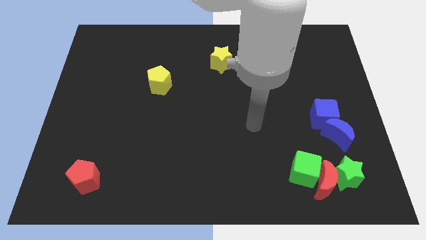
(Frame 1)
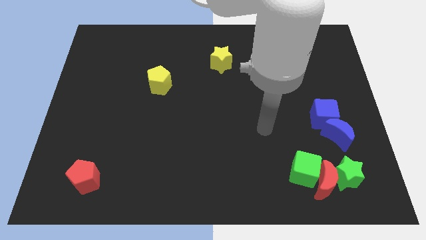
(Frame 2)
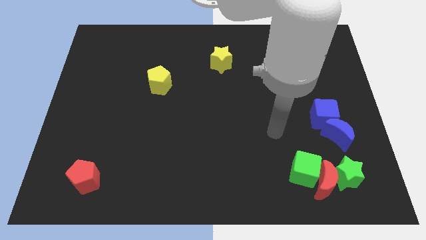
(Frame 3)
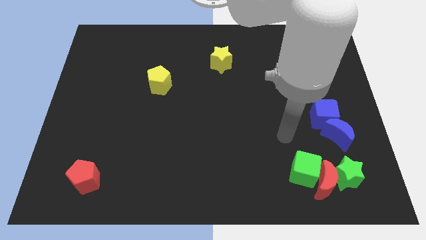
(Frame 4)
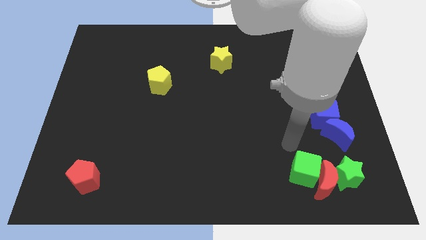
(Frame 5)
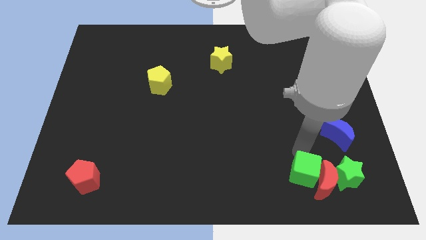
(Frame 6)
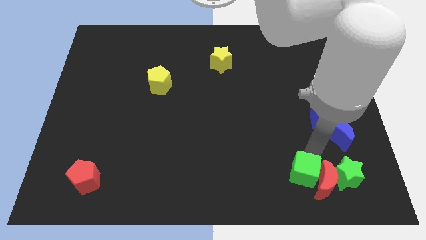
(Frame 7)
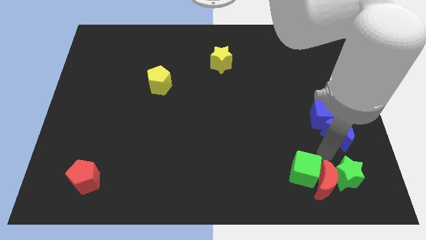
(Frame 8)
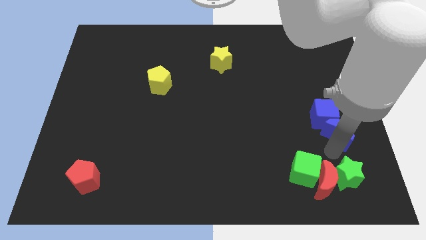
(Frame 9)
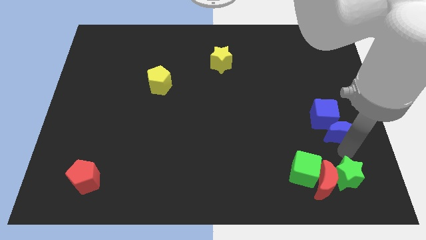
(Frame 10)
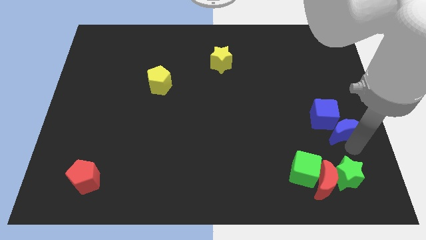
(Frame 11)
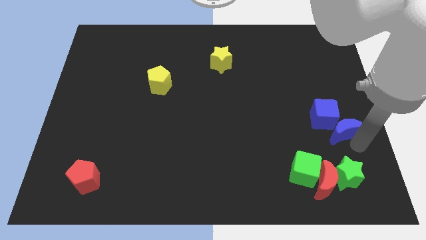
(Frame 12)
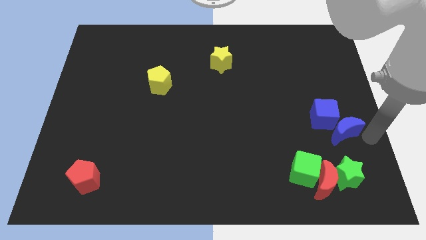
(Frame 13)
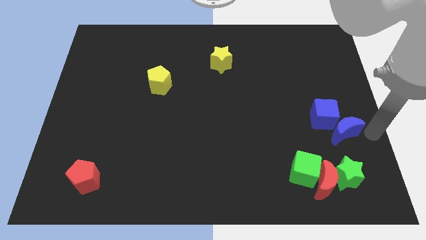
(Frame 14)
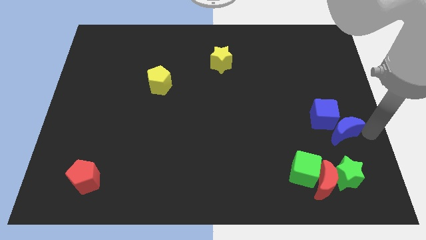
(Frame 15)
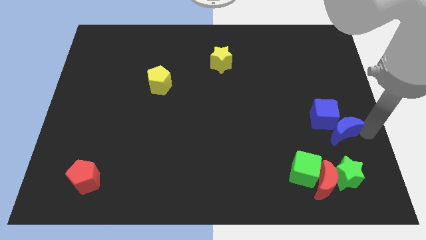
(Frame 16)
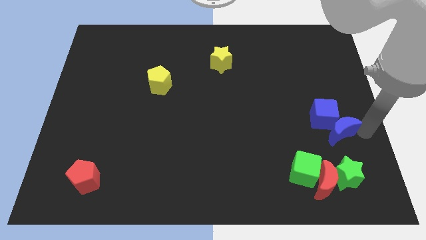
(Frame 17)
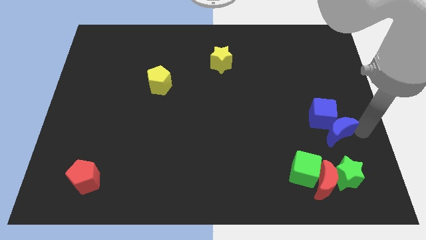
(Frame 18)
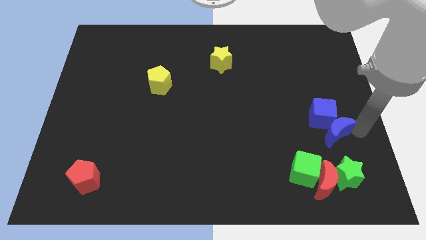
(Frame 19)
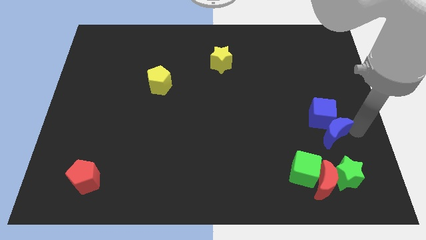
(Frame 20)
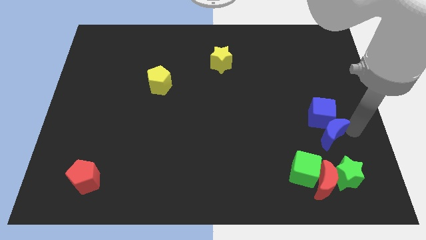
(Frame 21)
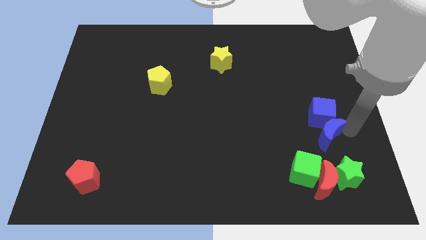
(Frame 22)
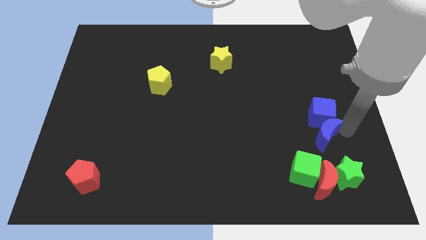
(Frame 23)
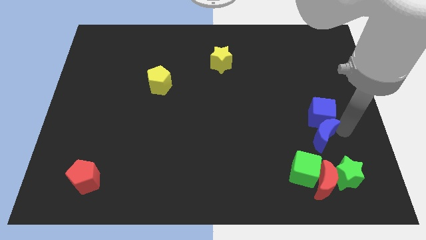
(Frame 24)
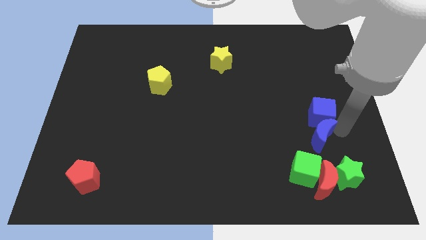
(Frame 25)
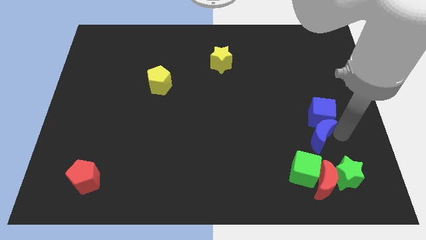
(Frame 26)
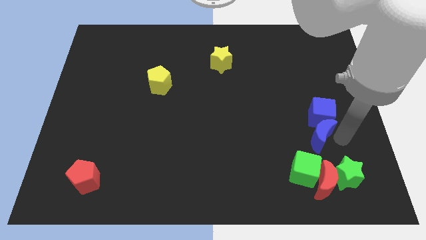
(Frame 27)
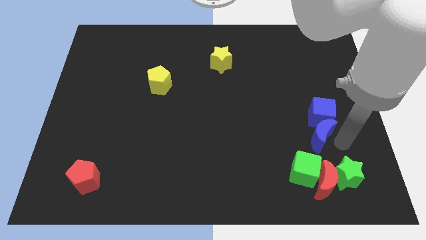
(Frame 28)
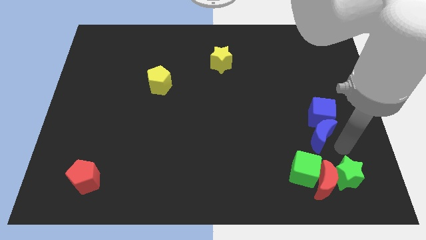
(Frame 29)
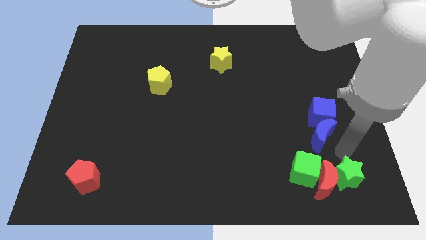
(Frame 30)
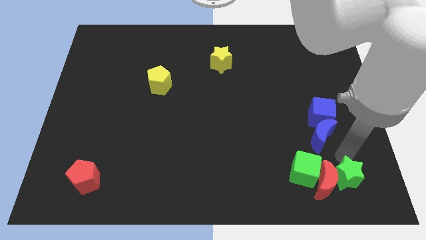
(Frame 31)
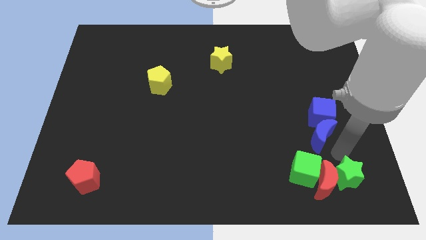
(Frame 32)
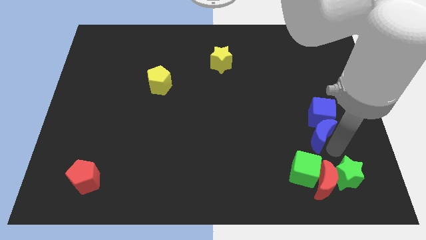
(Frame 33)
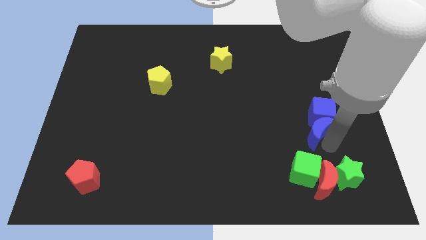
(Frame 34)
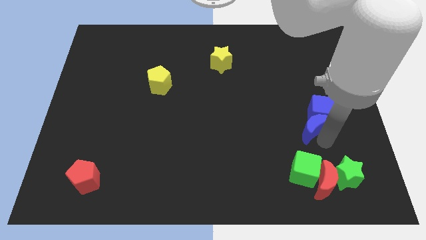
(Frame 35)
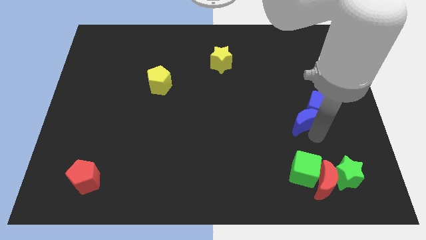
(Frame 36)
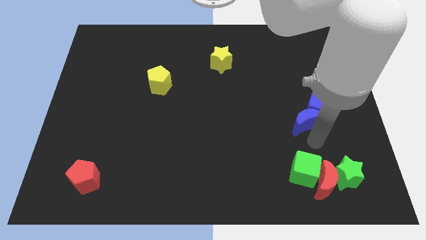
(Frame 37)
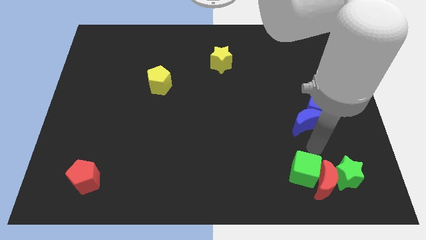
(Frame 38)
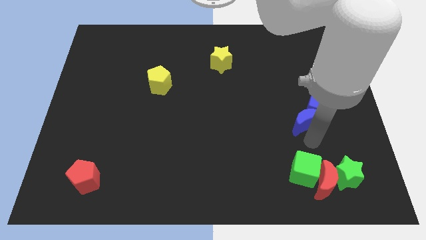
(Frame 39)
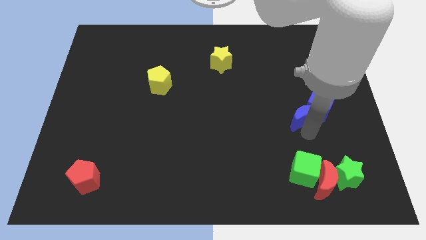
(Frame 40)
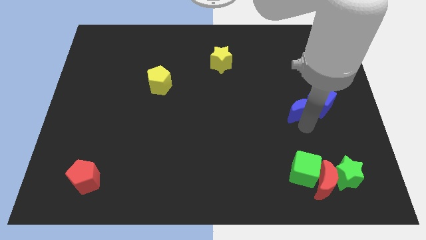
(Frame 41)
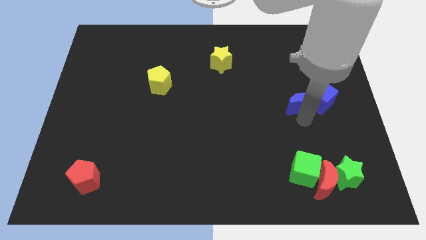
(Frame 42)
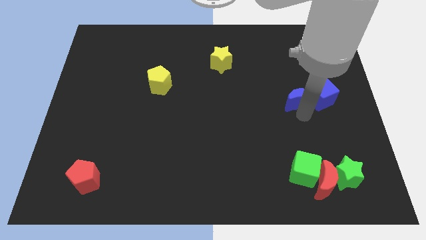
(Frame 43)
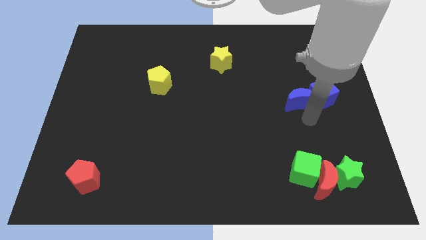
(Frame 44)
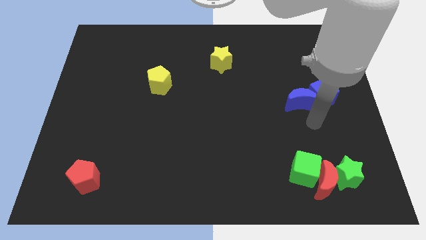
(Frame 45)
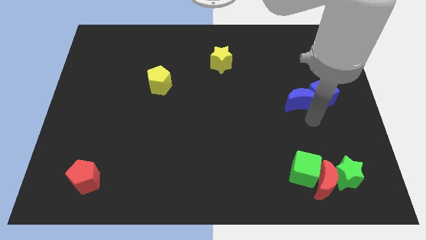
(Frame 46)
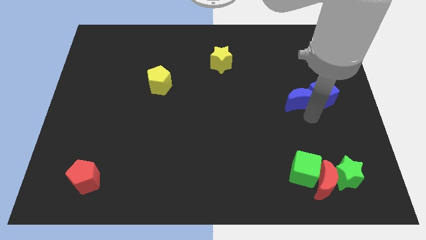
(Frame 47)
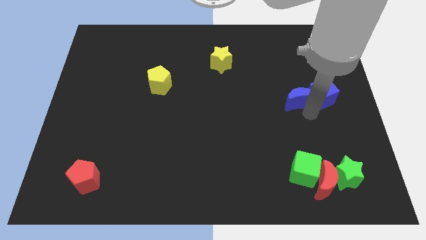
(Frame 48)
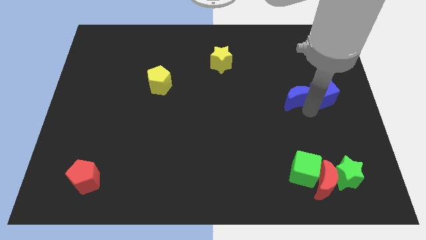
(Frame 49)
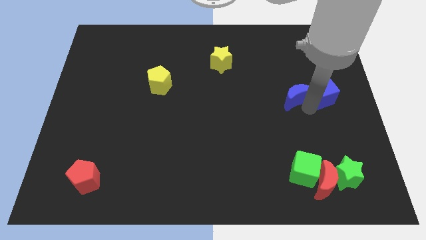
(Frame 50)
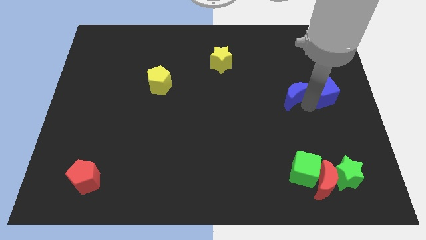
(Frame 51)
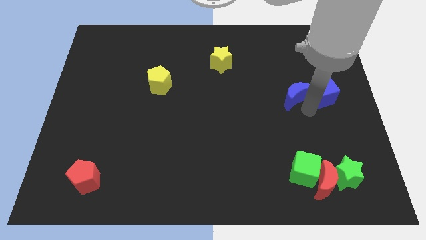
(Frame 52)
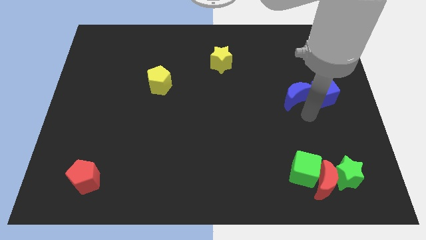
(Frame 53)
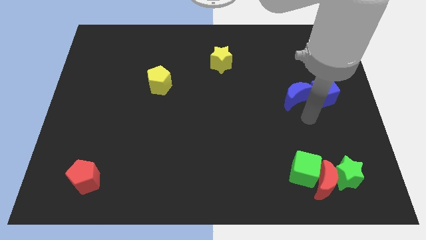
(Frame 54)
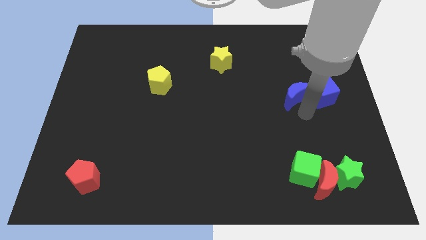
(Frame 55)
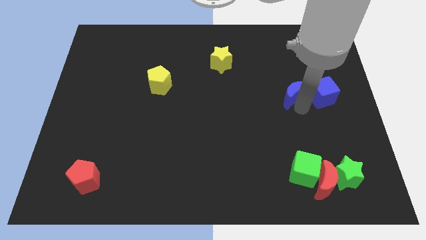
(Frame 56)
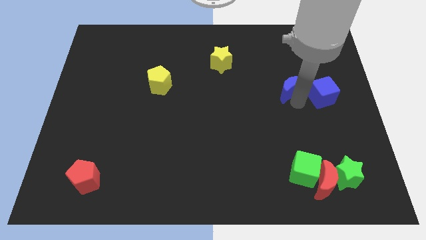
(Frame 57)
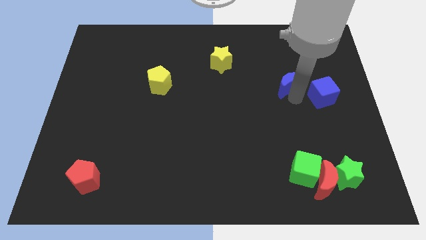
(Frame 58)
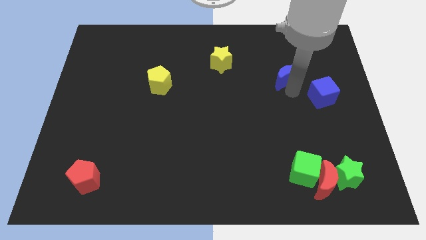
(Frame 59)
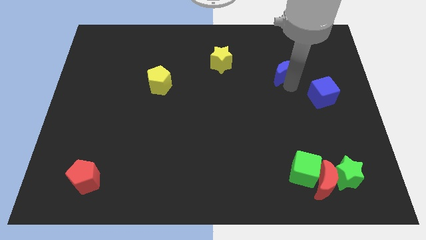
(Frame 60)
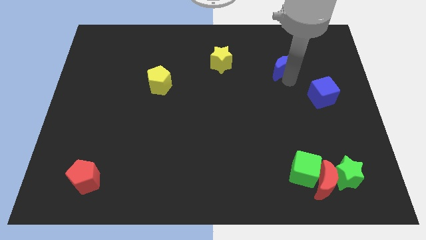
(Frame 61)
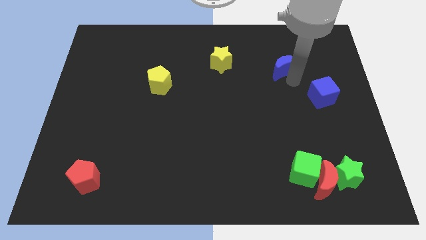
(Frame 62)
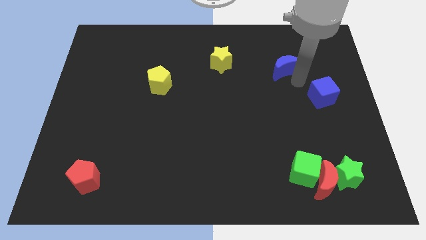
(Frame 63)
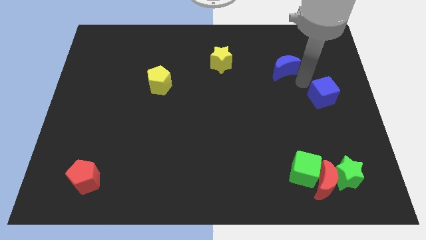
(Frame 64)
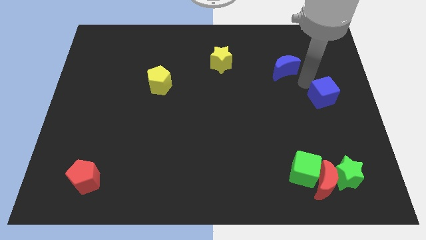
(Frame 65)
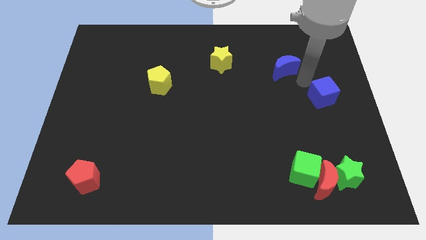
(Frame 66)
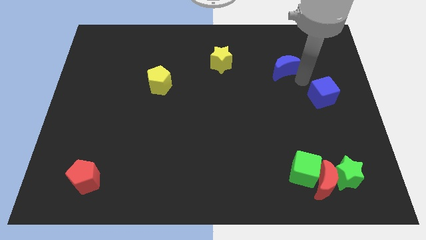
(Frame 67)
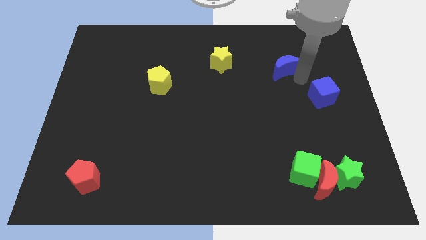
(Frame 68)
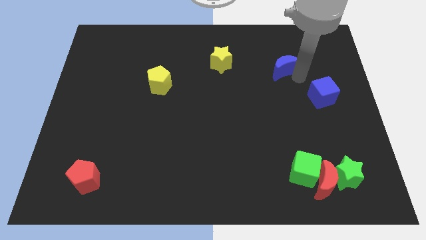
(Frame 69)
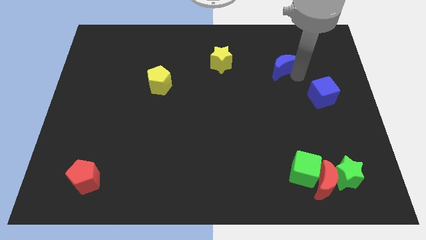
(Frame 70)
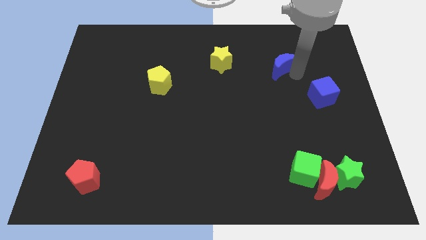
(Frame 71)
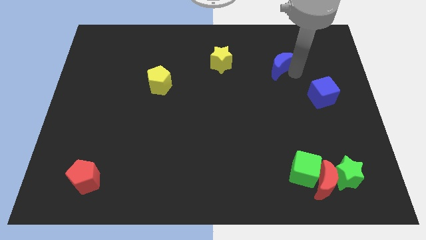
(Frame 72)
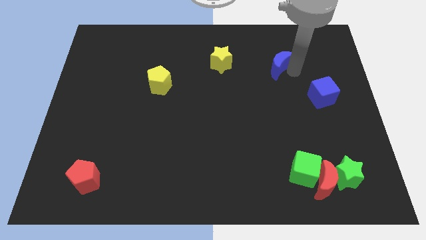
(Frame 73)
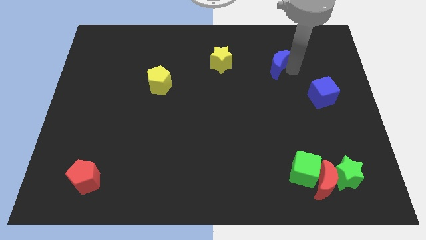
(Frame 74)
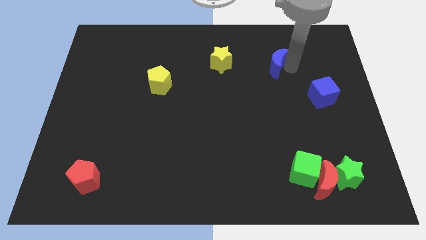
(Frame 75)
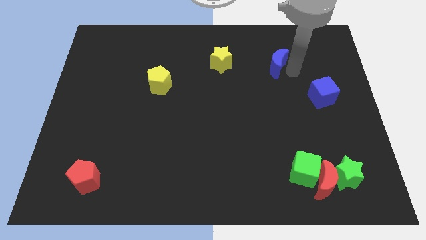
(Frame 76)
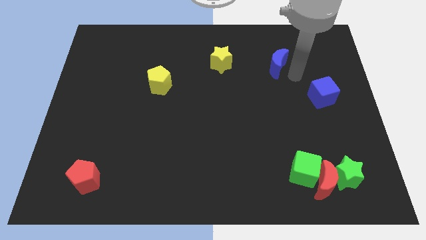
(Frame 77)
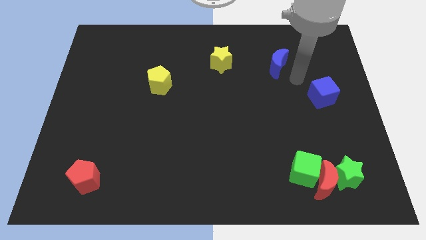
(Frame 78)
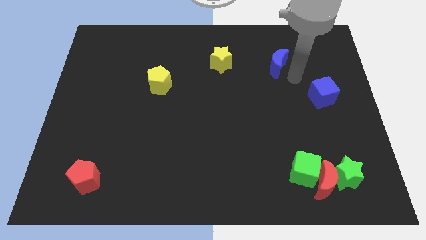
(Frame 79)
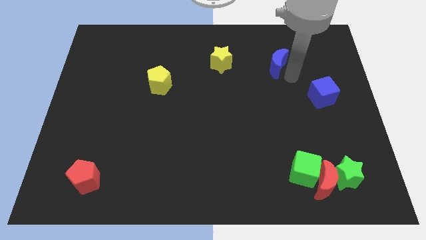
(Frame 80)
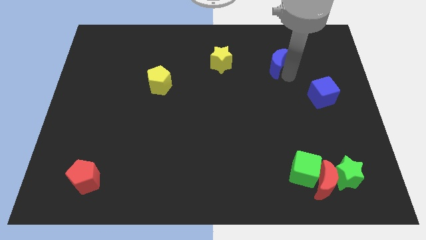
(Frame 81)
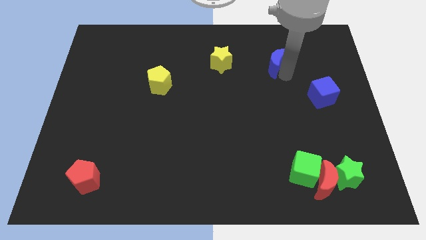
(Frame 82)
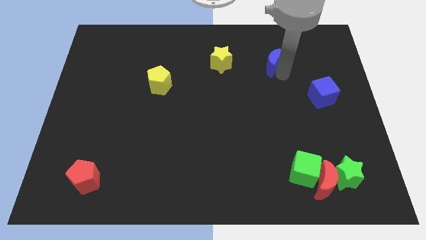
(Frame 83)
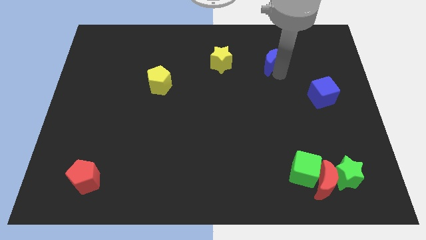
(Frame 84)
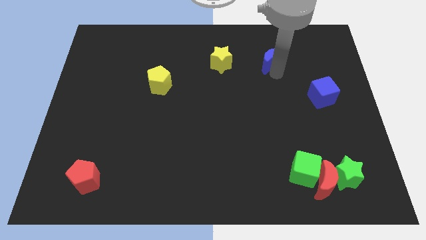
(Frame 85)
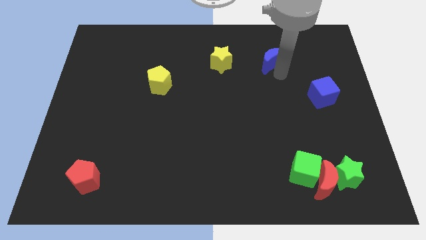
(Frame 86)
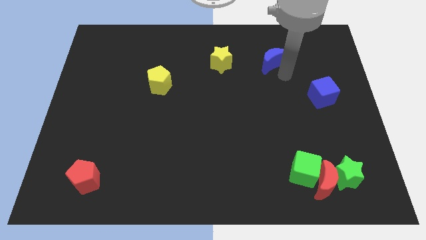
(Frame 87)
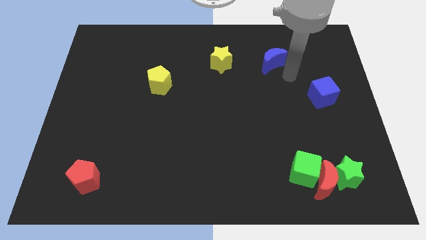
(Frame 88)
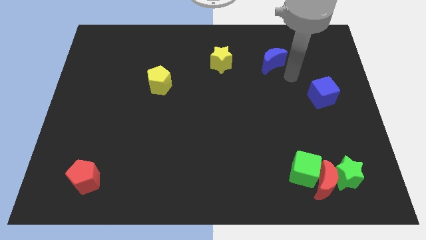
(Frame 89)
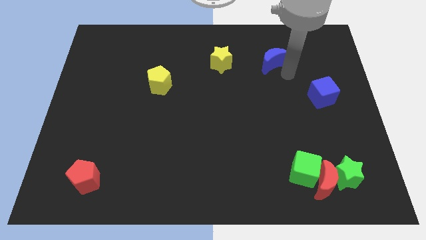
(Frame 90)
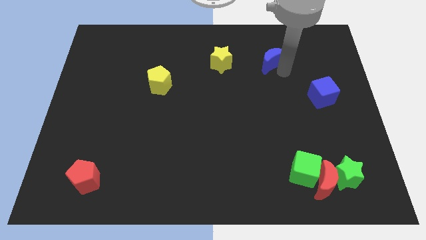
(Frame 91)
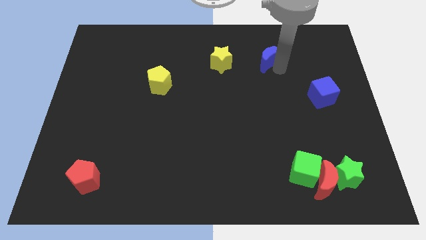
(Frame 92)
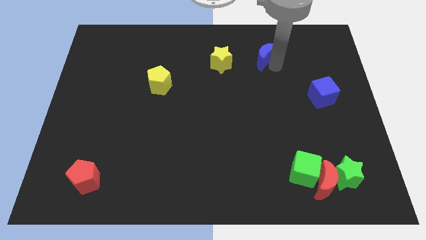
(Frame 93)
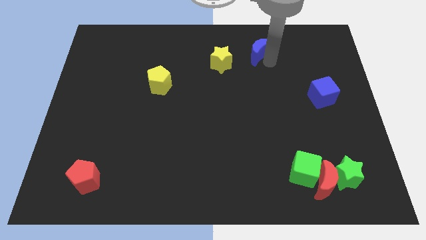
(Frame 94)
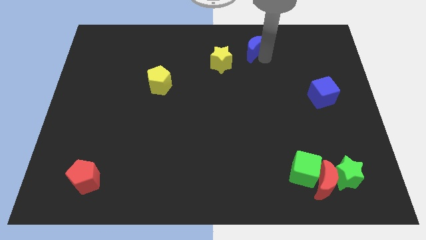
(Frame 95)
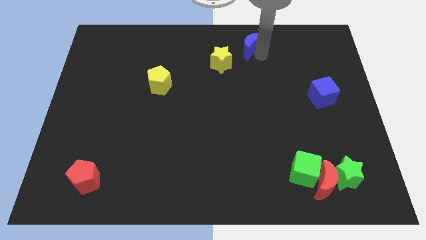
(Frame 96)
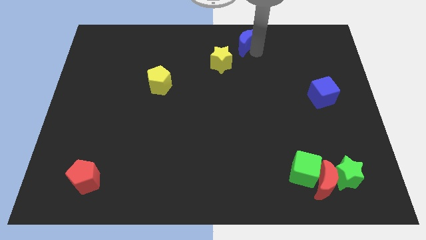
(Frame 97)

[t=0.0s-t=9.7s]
move the blue moon to the towards your base
